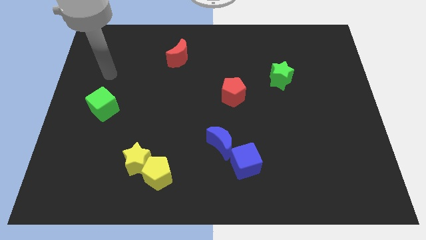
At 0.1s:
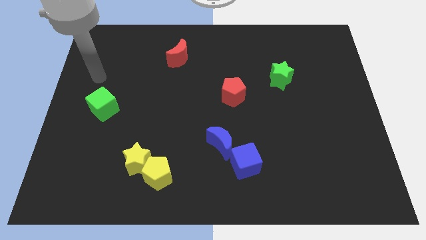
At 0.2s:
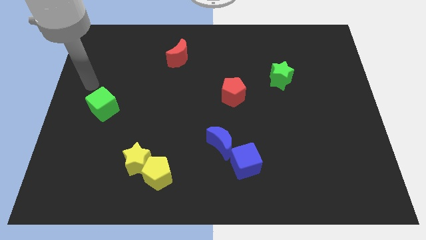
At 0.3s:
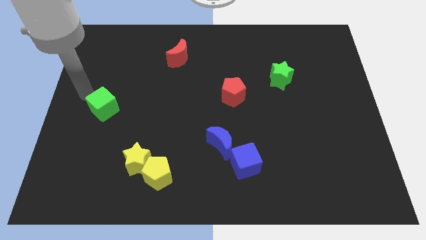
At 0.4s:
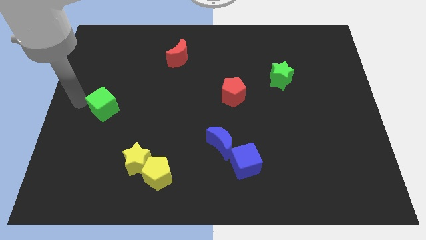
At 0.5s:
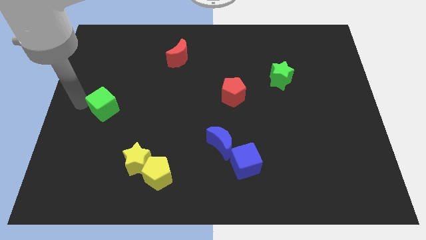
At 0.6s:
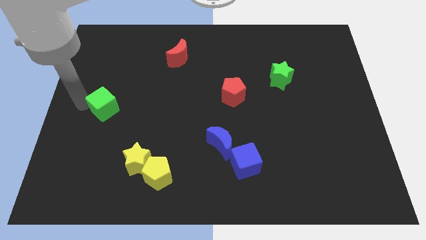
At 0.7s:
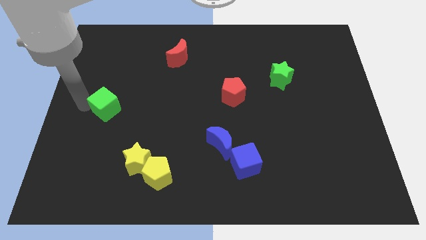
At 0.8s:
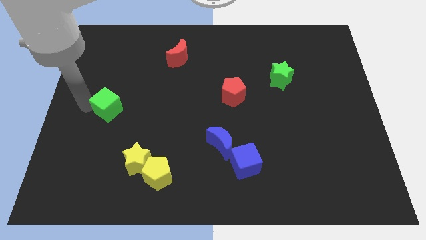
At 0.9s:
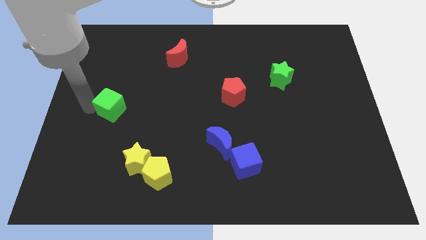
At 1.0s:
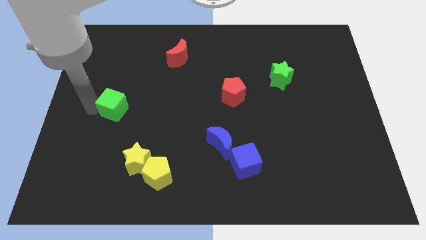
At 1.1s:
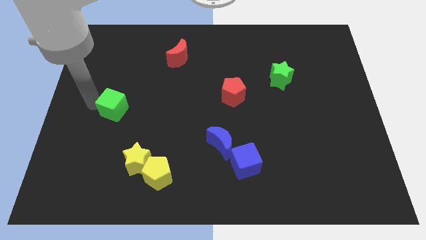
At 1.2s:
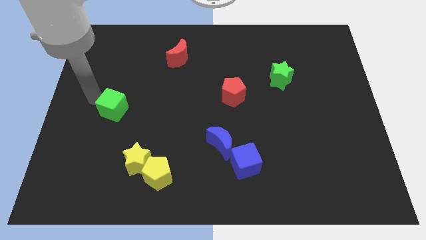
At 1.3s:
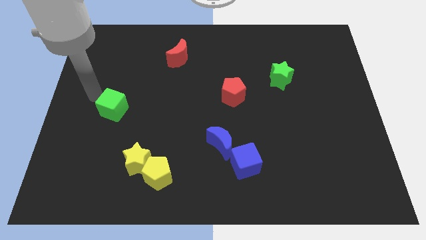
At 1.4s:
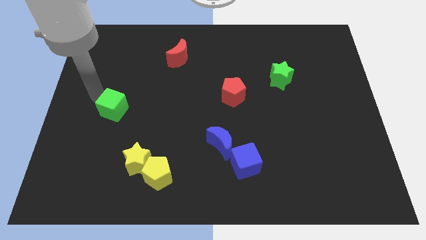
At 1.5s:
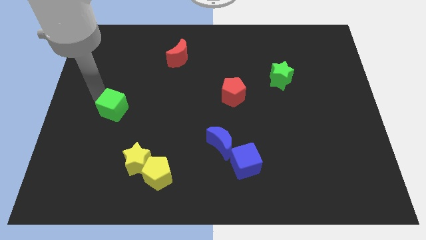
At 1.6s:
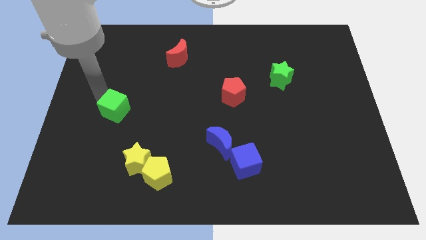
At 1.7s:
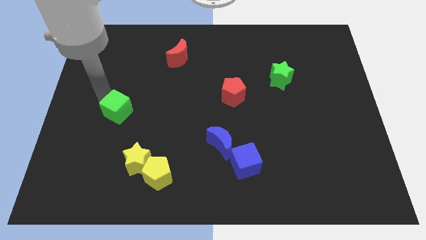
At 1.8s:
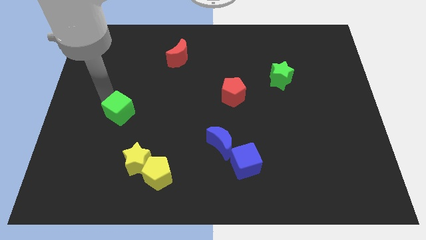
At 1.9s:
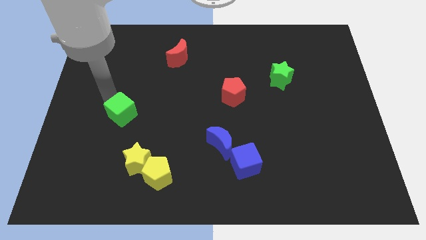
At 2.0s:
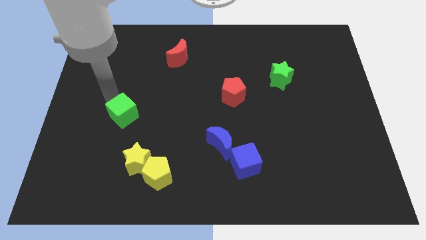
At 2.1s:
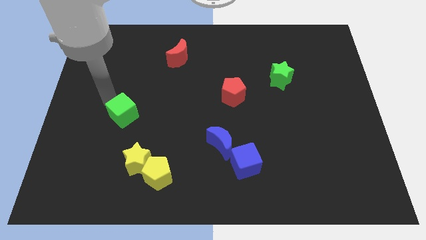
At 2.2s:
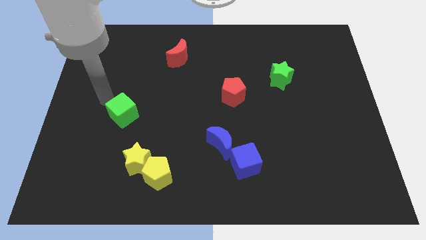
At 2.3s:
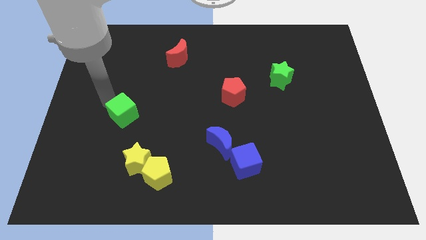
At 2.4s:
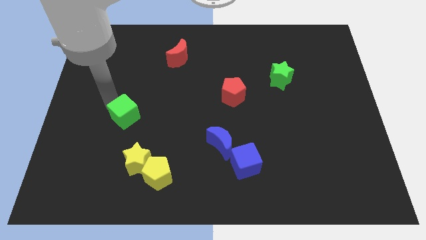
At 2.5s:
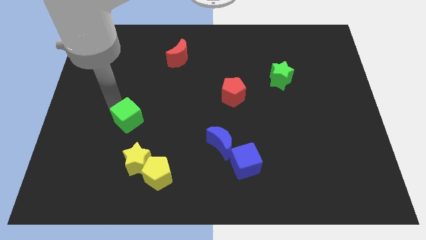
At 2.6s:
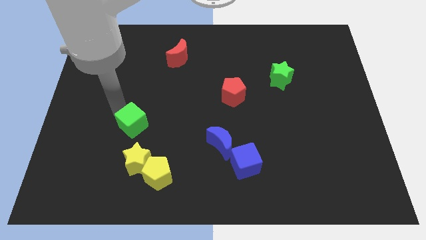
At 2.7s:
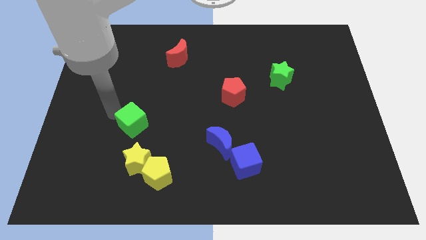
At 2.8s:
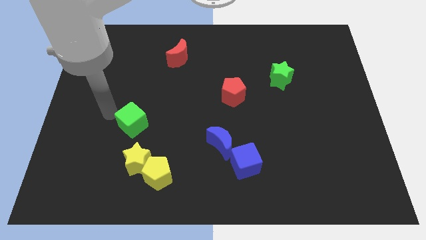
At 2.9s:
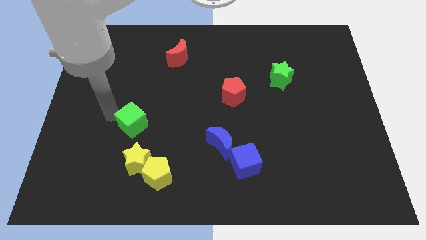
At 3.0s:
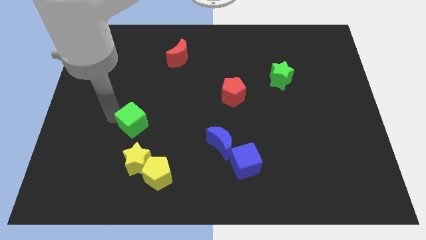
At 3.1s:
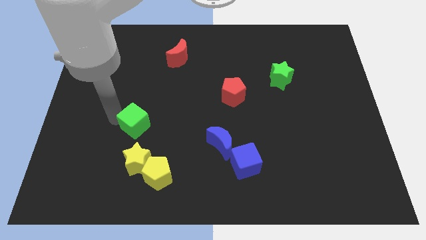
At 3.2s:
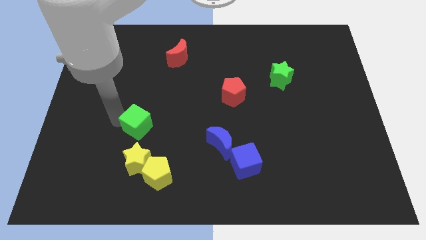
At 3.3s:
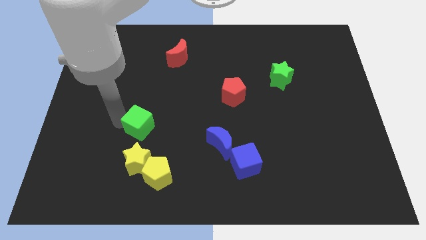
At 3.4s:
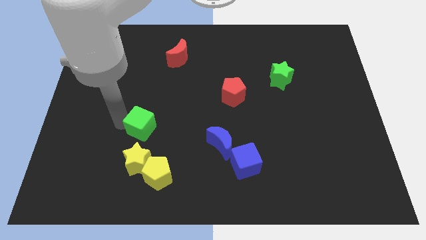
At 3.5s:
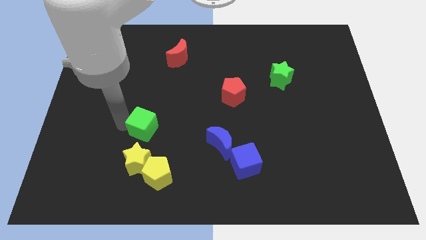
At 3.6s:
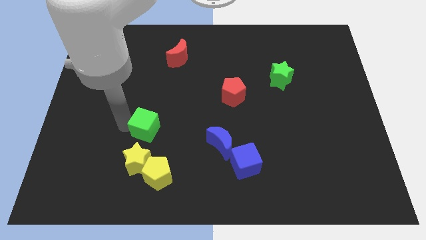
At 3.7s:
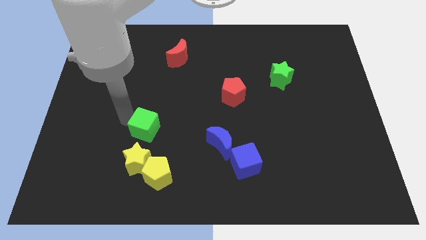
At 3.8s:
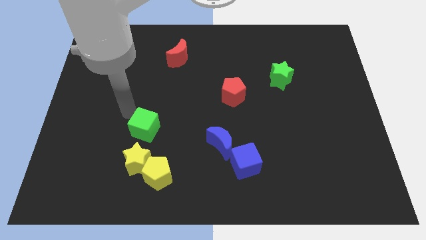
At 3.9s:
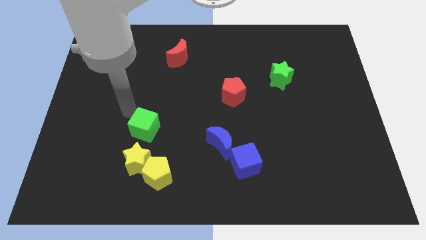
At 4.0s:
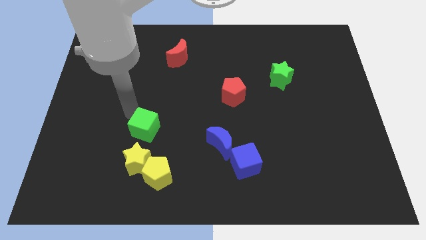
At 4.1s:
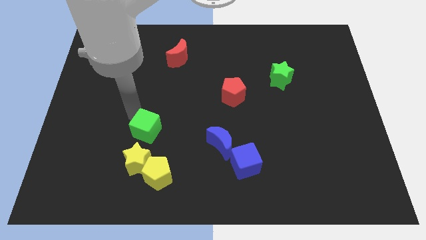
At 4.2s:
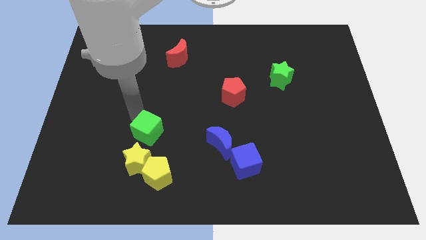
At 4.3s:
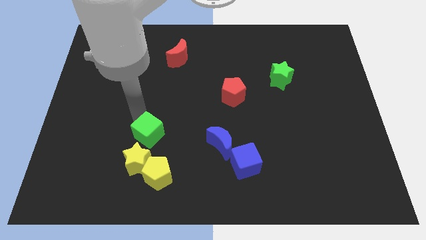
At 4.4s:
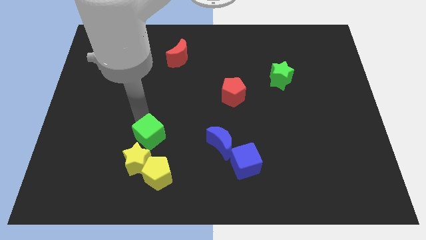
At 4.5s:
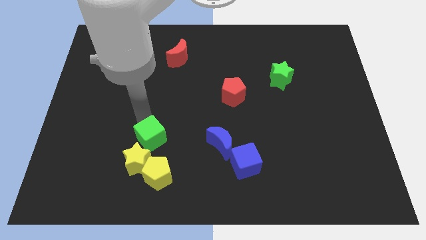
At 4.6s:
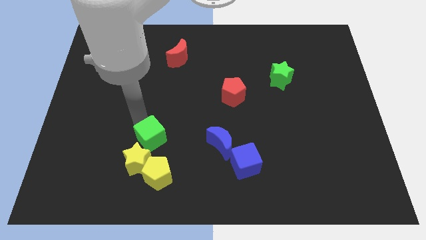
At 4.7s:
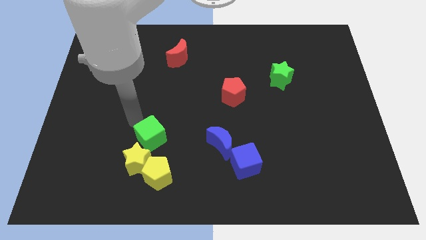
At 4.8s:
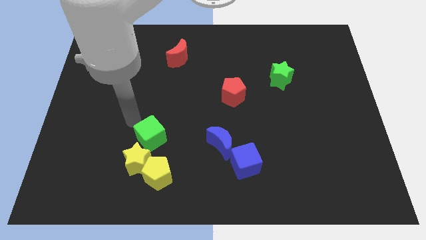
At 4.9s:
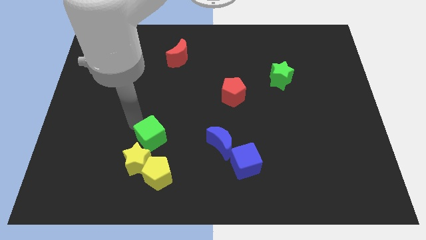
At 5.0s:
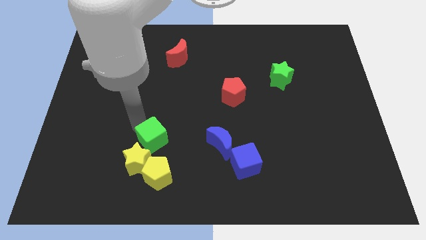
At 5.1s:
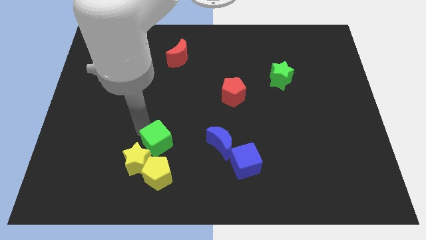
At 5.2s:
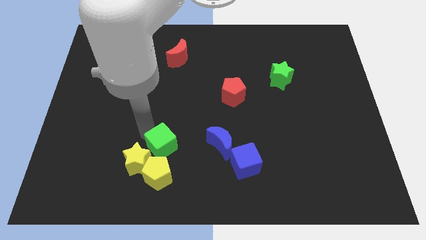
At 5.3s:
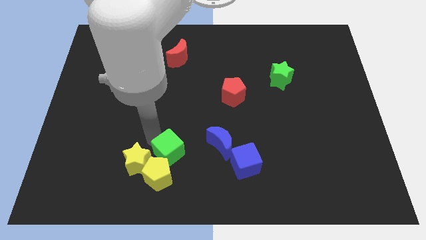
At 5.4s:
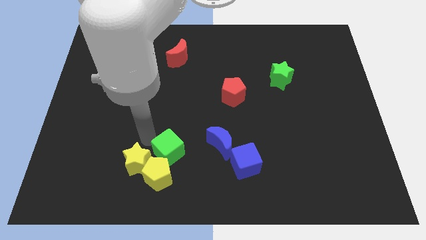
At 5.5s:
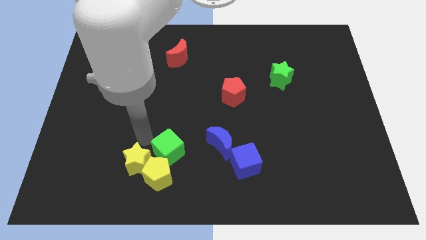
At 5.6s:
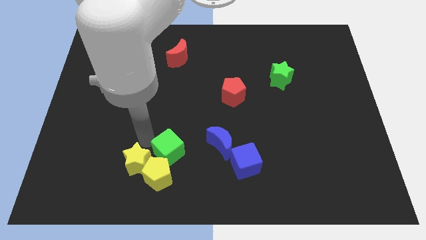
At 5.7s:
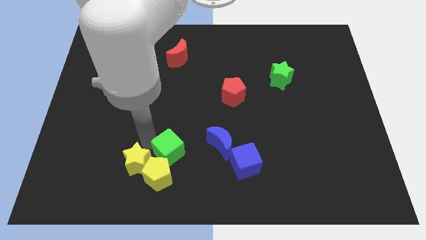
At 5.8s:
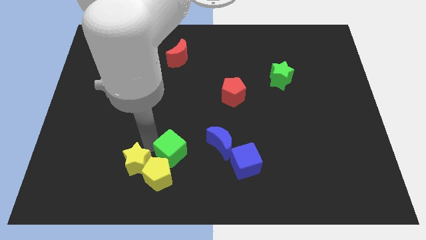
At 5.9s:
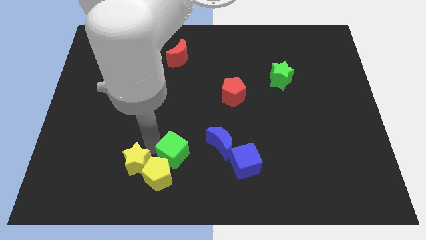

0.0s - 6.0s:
slide the green cube left of the blue cube

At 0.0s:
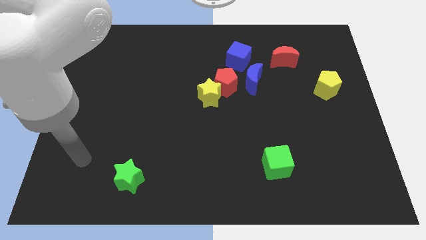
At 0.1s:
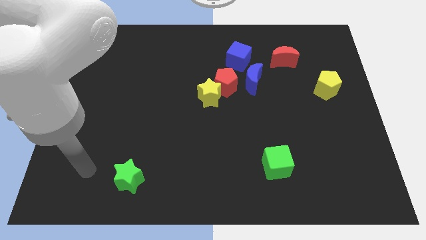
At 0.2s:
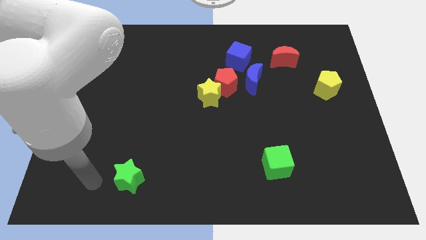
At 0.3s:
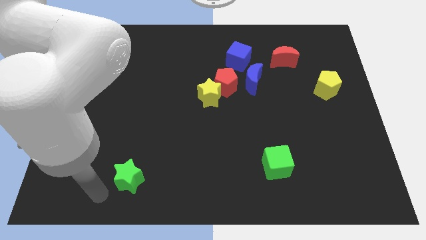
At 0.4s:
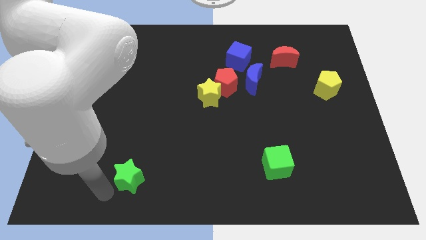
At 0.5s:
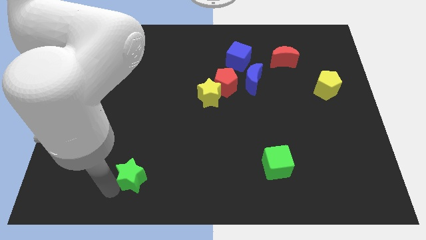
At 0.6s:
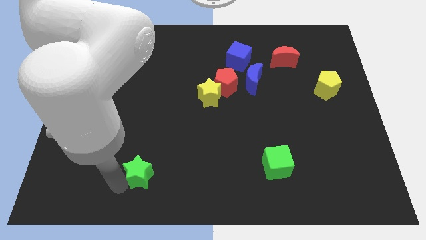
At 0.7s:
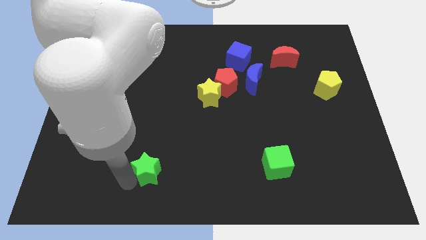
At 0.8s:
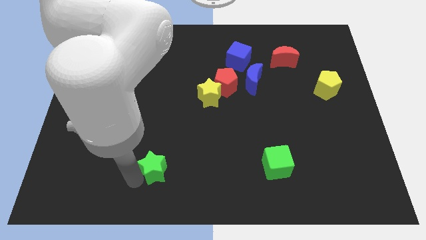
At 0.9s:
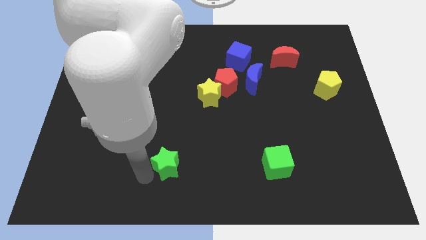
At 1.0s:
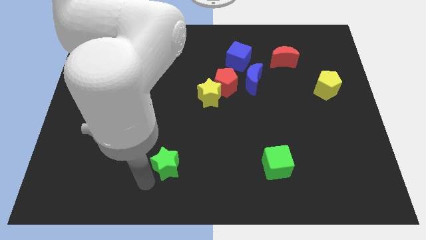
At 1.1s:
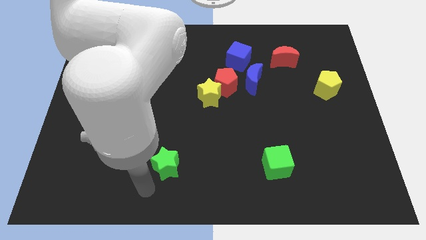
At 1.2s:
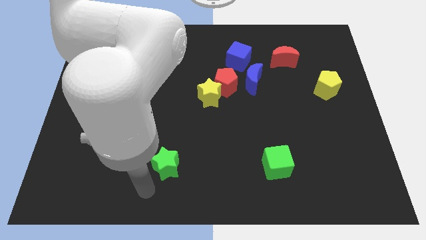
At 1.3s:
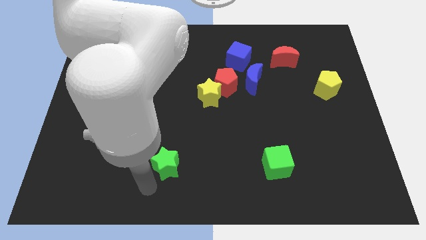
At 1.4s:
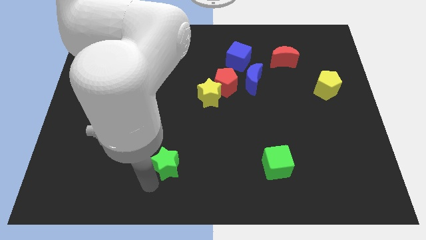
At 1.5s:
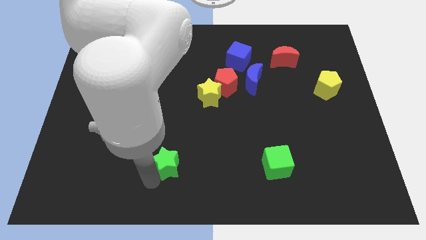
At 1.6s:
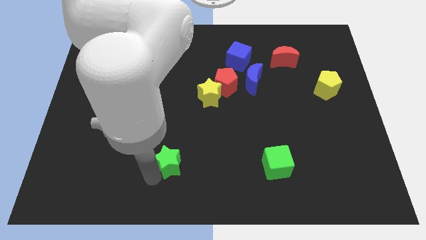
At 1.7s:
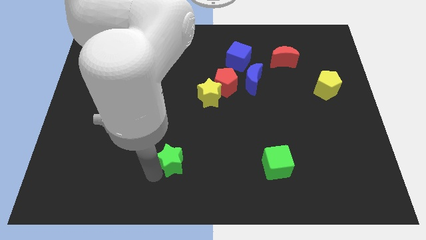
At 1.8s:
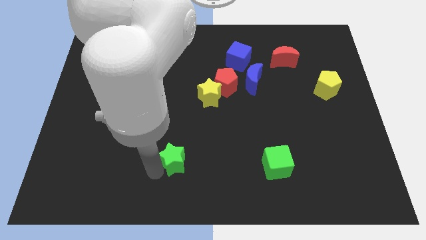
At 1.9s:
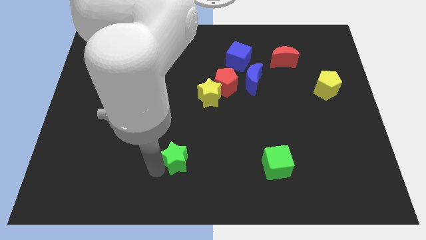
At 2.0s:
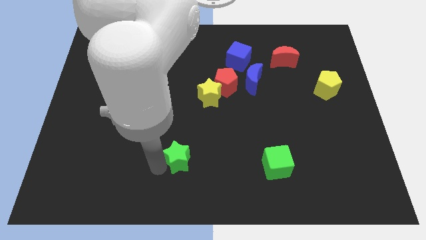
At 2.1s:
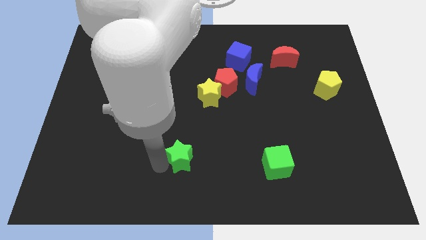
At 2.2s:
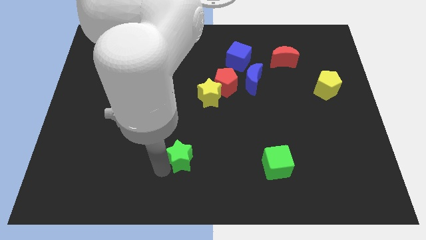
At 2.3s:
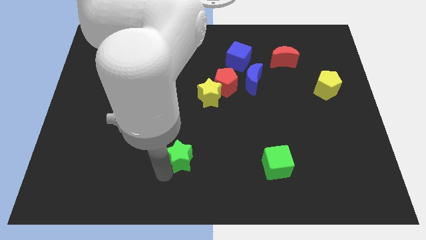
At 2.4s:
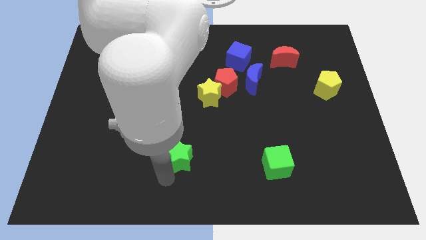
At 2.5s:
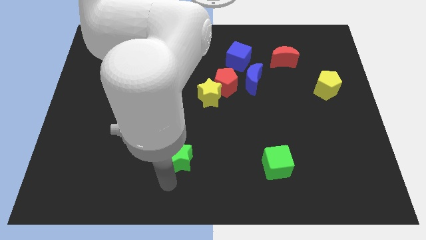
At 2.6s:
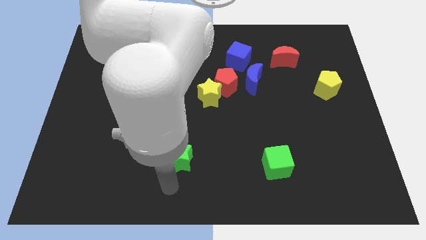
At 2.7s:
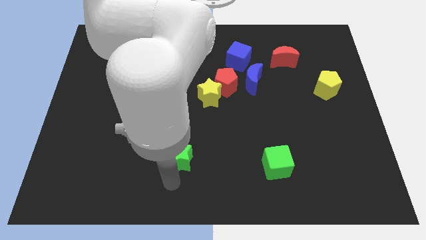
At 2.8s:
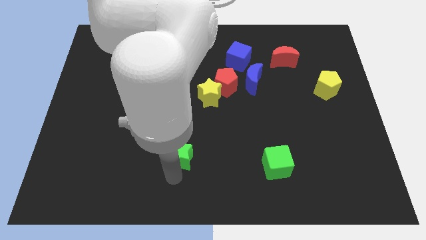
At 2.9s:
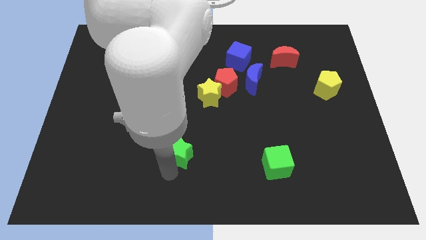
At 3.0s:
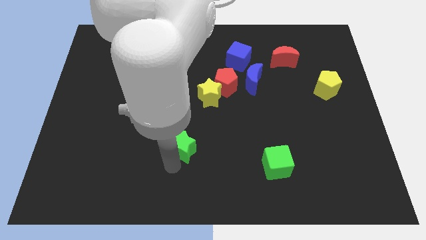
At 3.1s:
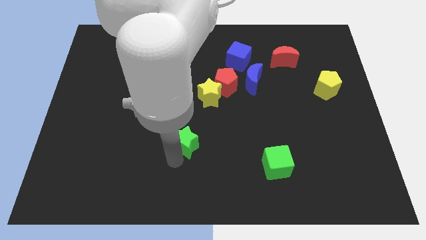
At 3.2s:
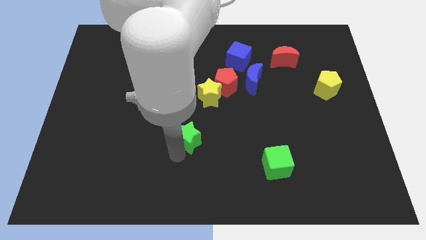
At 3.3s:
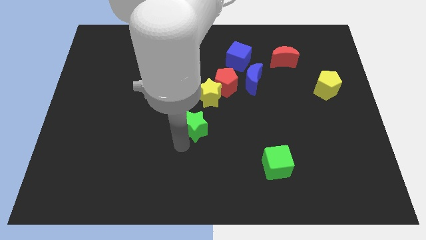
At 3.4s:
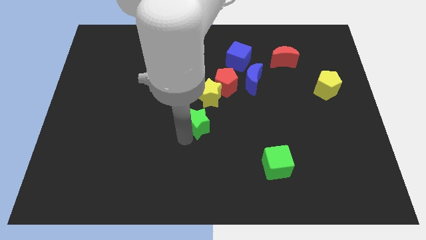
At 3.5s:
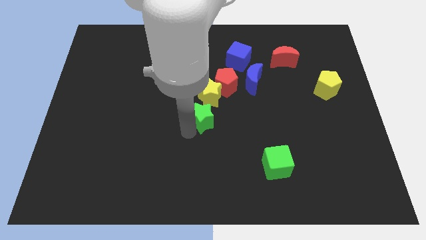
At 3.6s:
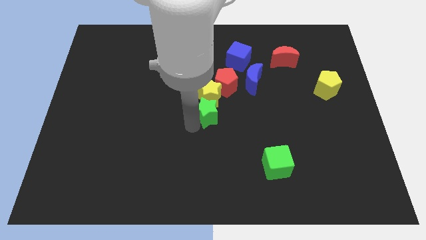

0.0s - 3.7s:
move the green star to the bottom side of the red pentagon
